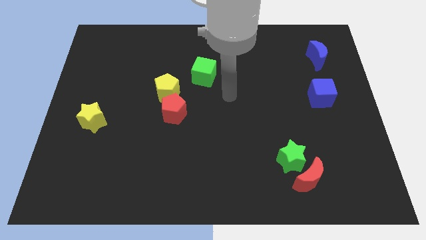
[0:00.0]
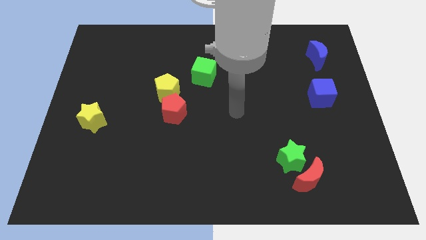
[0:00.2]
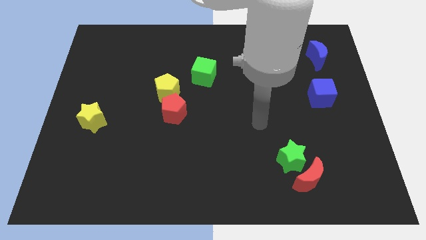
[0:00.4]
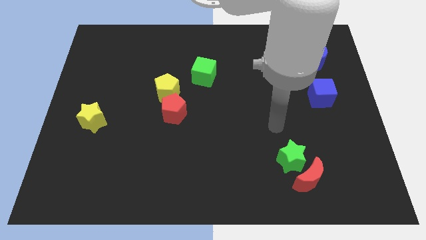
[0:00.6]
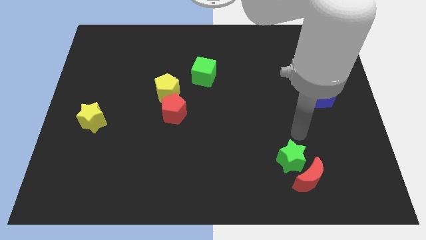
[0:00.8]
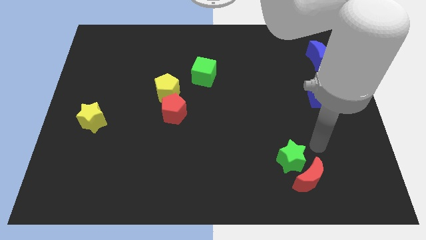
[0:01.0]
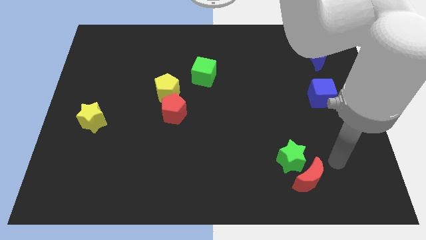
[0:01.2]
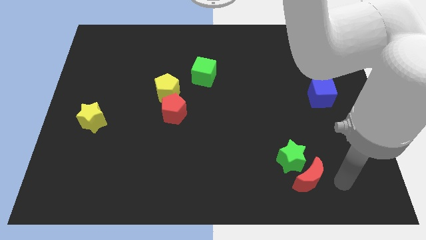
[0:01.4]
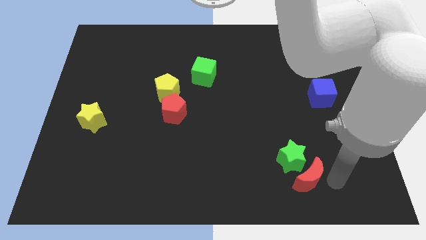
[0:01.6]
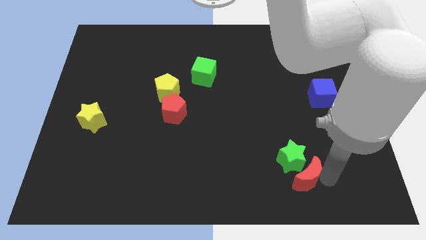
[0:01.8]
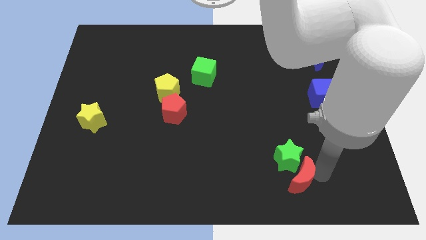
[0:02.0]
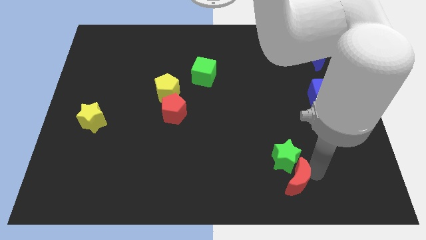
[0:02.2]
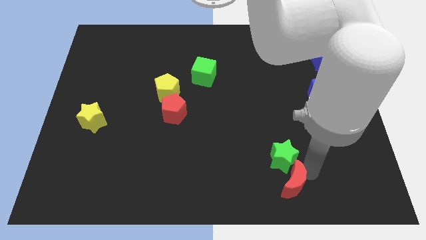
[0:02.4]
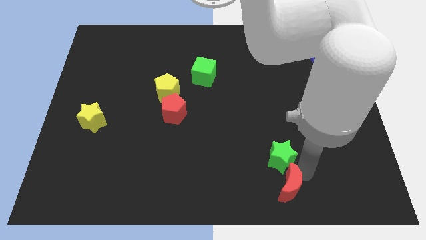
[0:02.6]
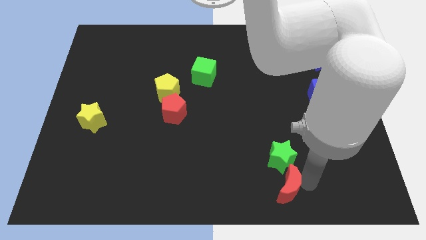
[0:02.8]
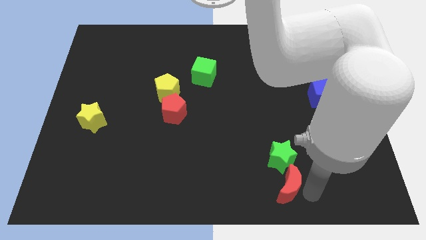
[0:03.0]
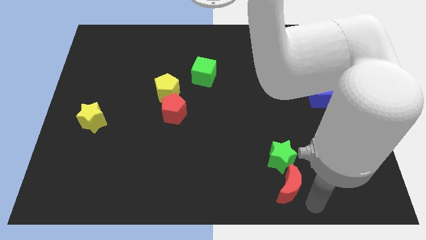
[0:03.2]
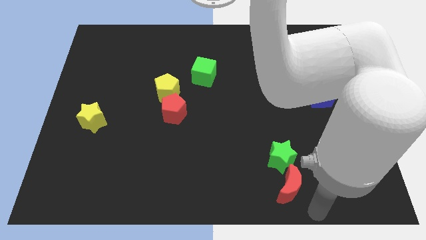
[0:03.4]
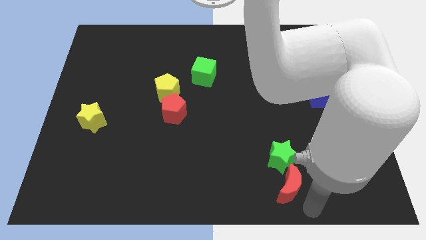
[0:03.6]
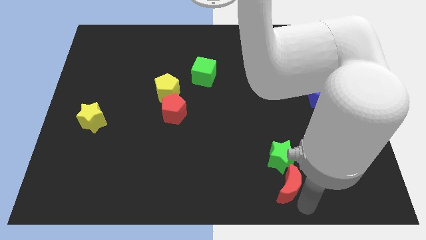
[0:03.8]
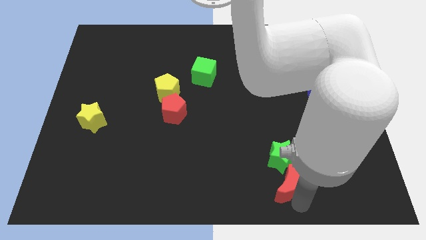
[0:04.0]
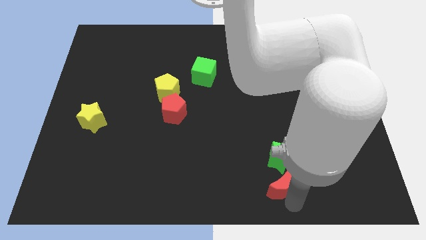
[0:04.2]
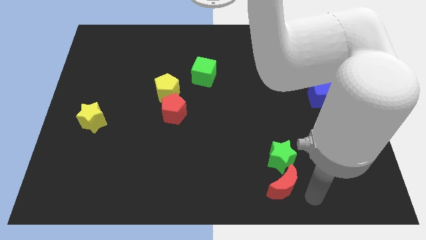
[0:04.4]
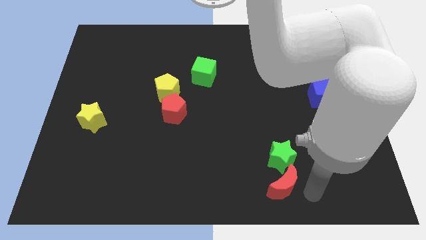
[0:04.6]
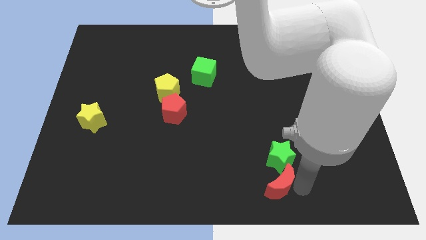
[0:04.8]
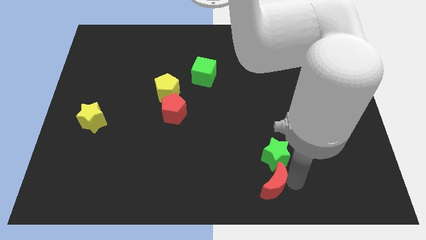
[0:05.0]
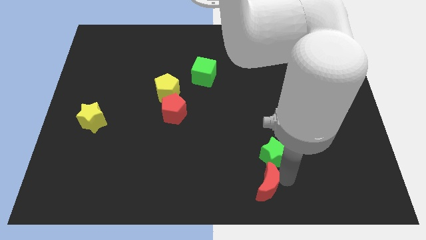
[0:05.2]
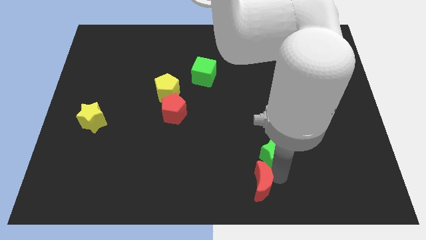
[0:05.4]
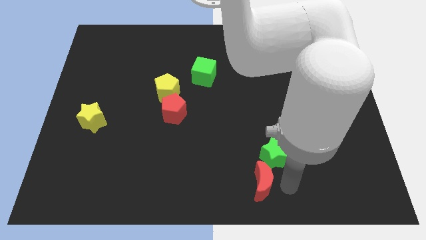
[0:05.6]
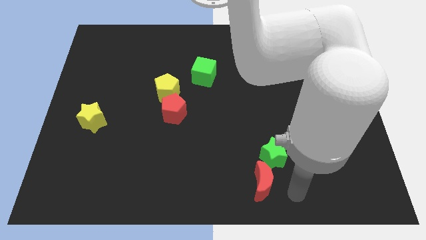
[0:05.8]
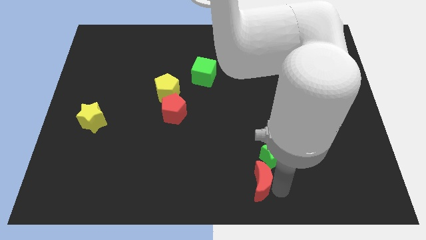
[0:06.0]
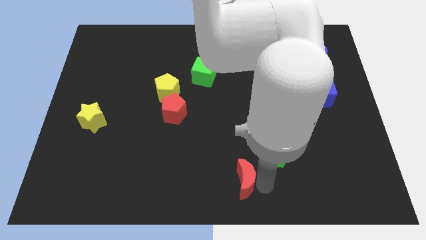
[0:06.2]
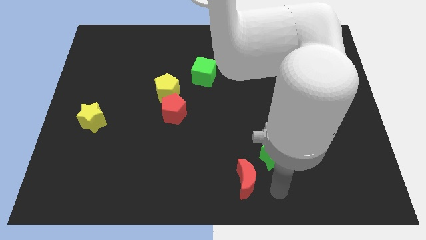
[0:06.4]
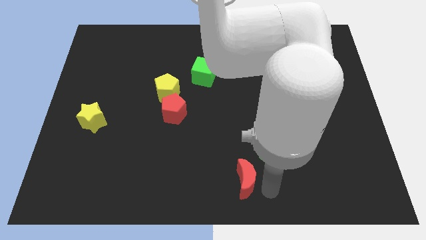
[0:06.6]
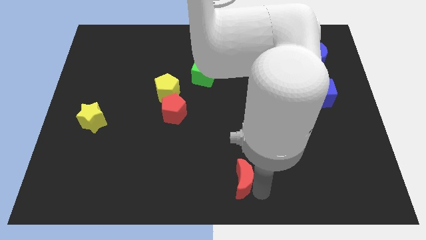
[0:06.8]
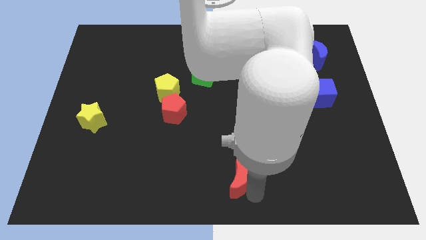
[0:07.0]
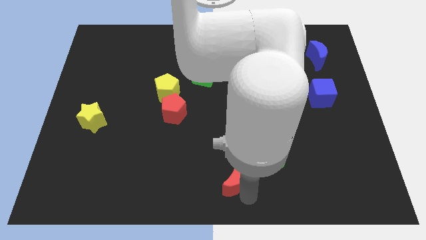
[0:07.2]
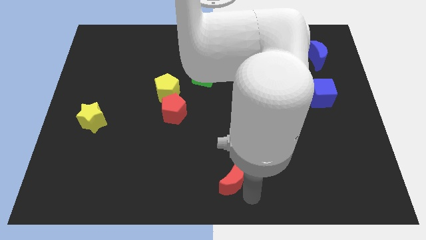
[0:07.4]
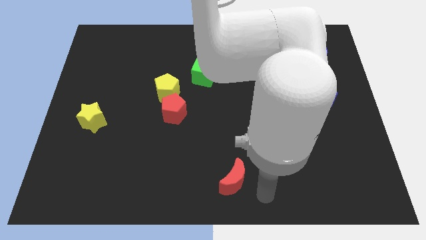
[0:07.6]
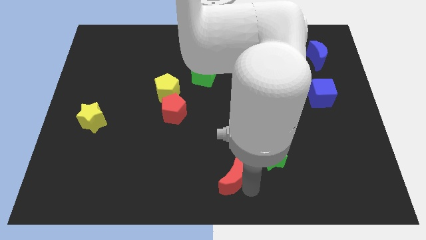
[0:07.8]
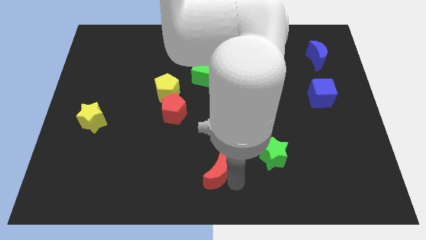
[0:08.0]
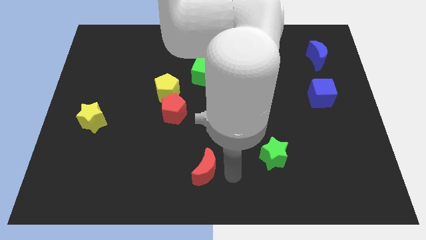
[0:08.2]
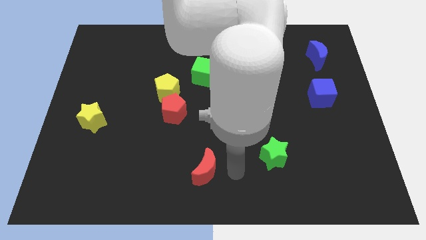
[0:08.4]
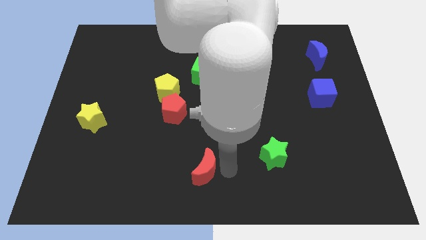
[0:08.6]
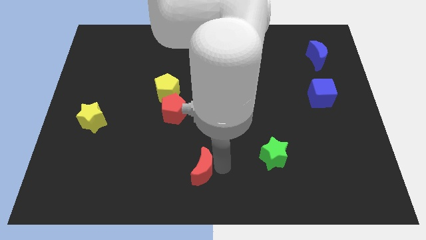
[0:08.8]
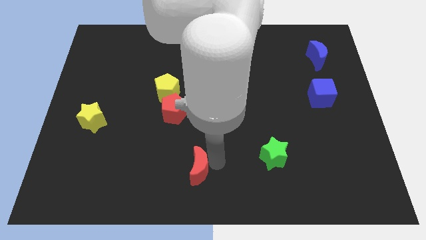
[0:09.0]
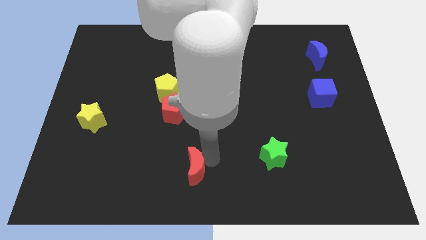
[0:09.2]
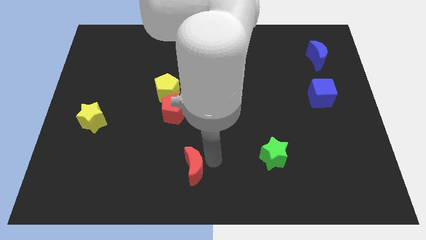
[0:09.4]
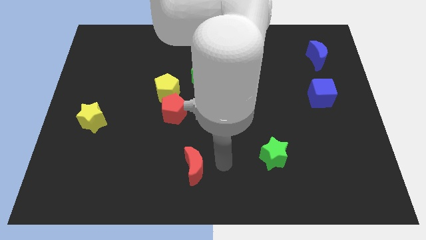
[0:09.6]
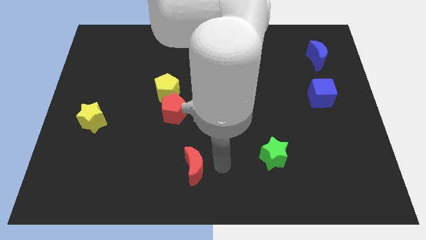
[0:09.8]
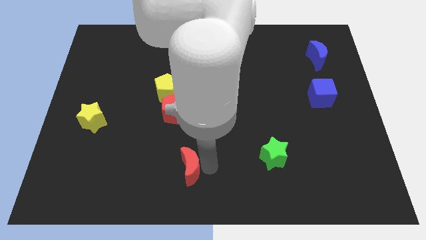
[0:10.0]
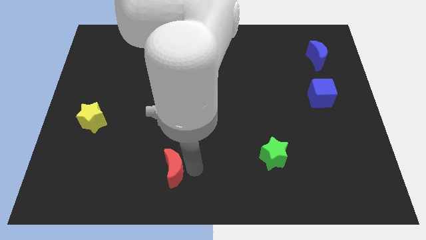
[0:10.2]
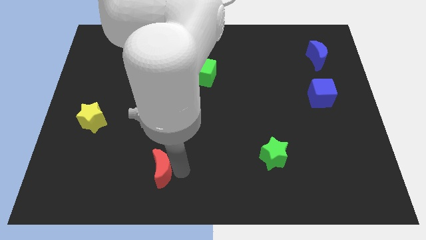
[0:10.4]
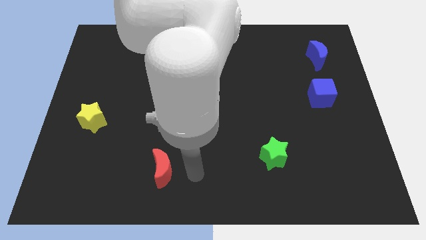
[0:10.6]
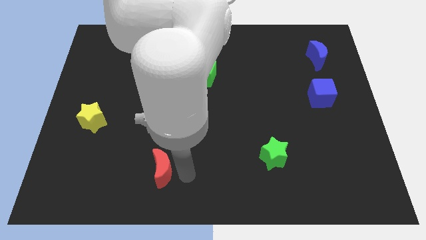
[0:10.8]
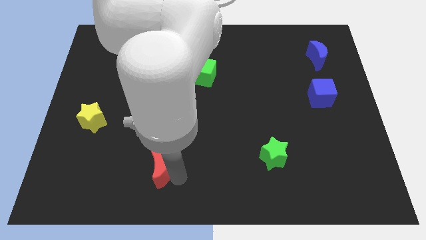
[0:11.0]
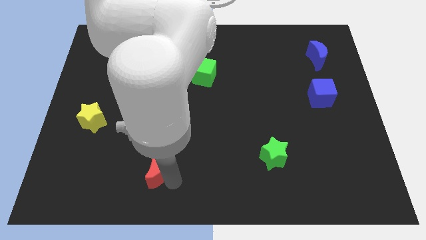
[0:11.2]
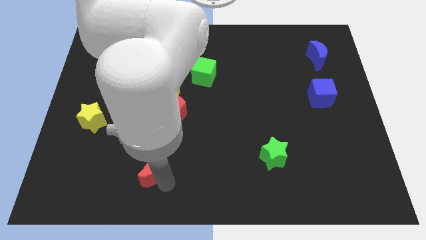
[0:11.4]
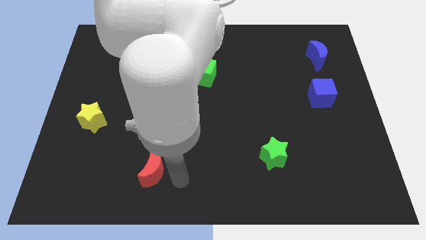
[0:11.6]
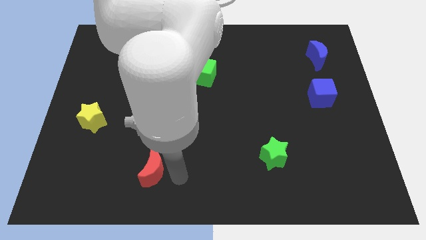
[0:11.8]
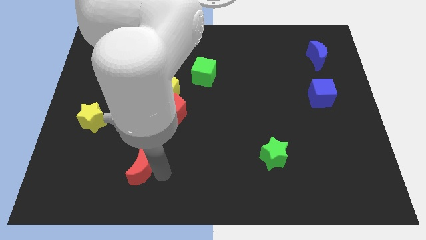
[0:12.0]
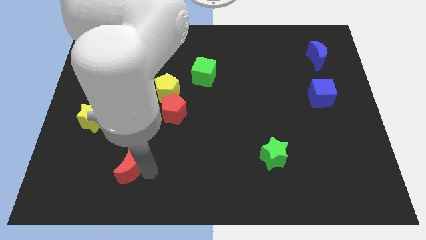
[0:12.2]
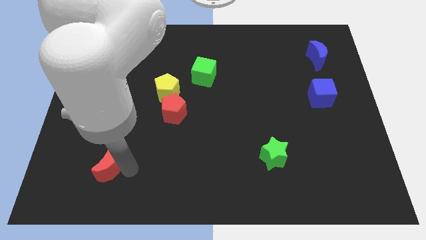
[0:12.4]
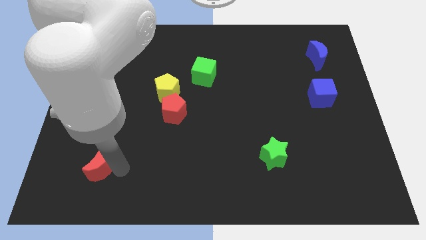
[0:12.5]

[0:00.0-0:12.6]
put the red moon to the bottom of the yellow star

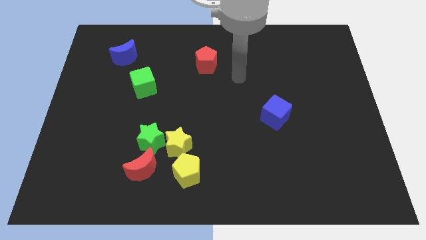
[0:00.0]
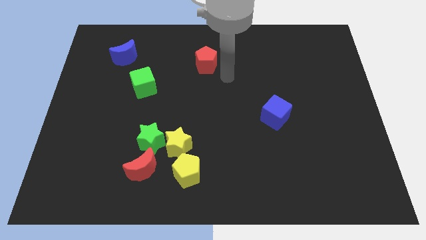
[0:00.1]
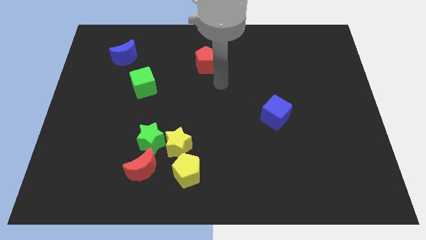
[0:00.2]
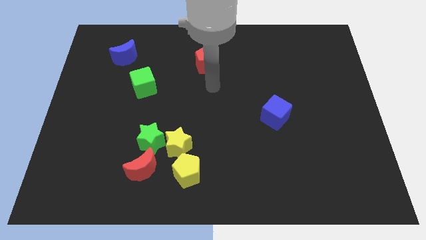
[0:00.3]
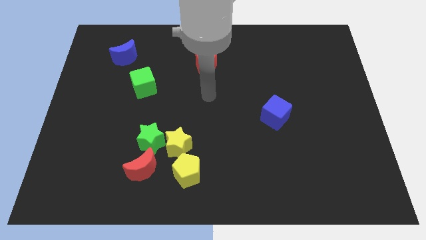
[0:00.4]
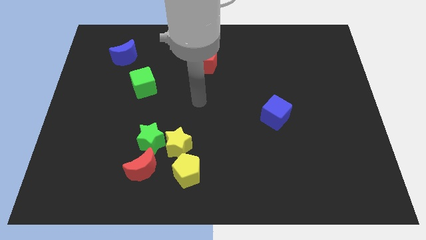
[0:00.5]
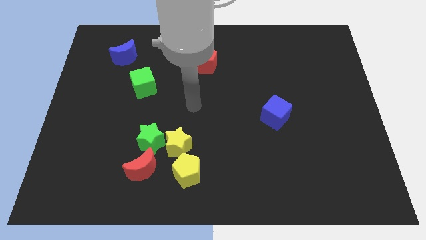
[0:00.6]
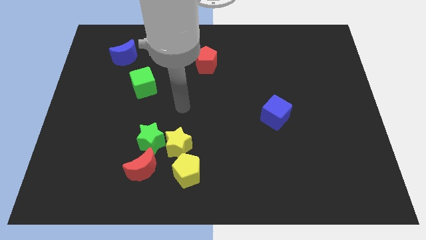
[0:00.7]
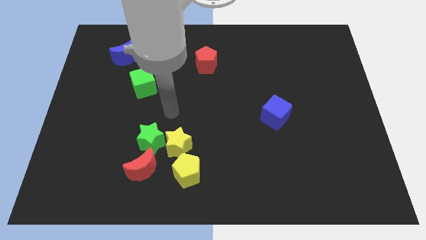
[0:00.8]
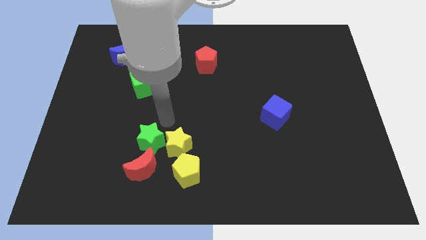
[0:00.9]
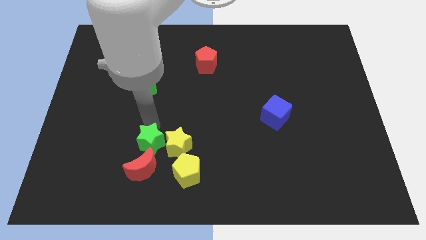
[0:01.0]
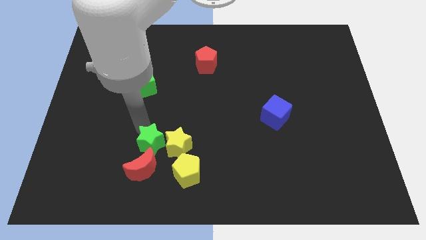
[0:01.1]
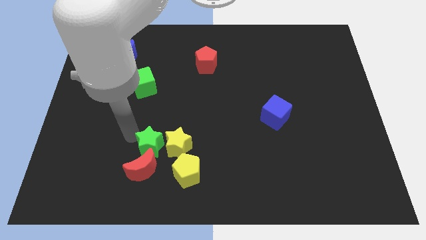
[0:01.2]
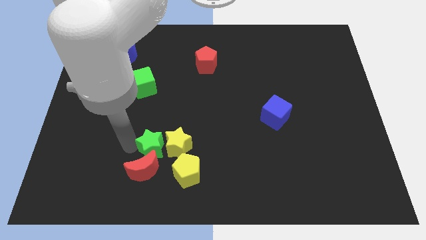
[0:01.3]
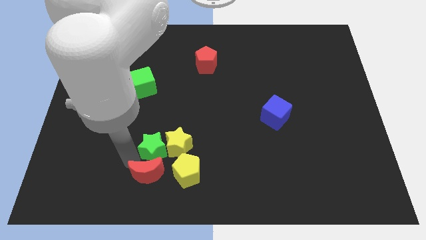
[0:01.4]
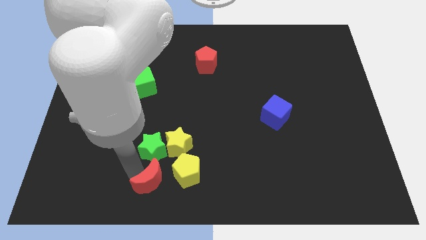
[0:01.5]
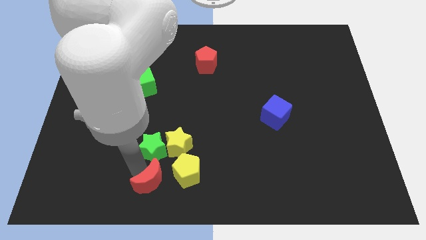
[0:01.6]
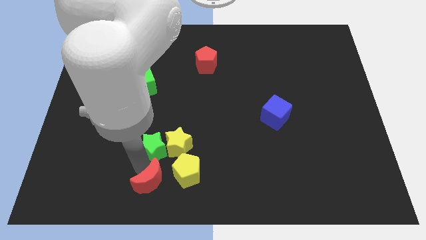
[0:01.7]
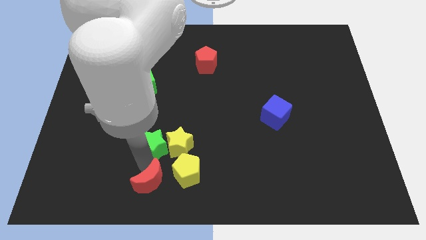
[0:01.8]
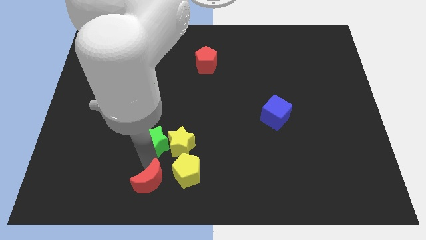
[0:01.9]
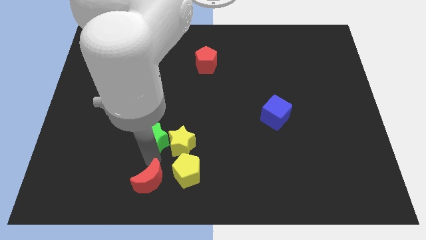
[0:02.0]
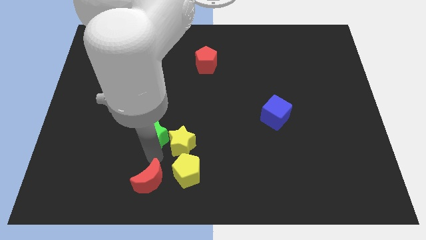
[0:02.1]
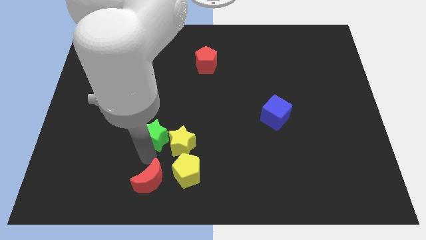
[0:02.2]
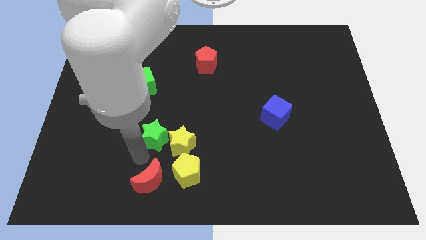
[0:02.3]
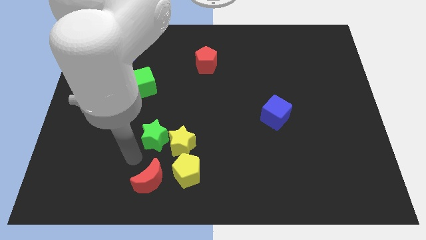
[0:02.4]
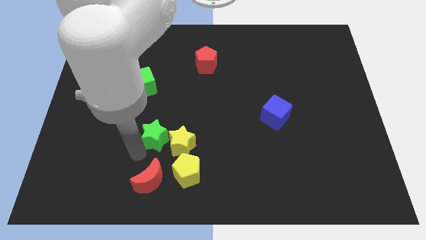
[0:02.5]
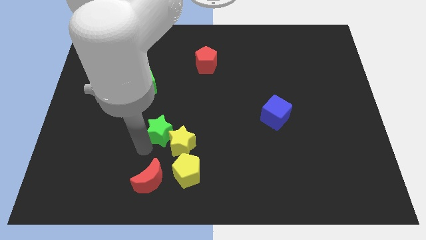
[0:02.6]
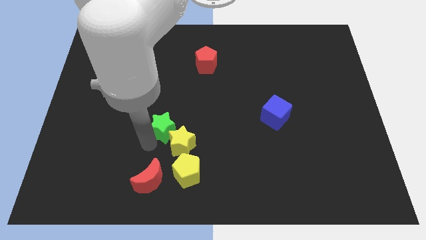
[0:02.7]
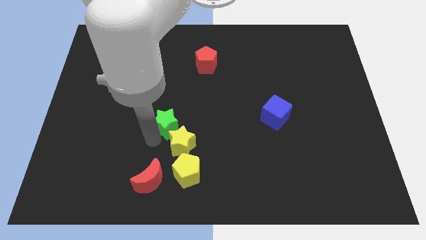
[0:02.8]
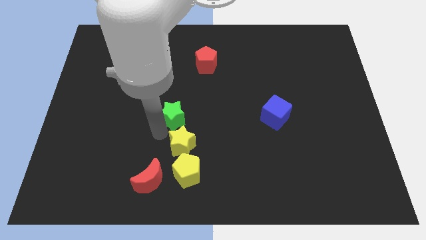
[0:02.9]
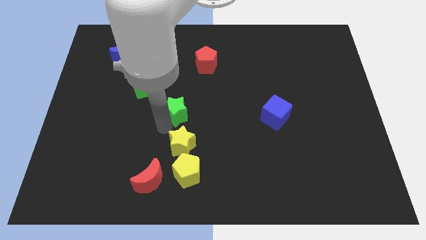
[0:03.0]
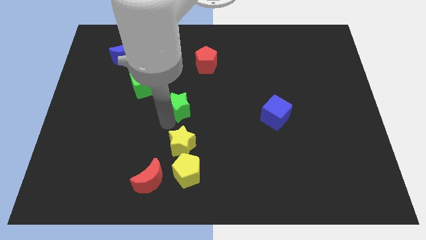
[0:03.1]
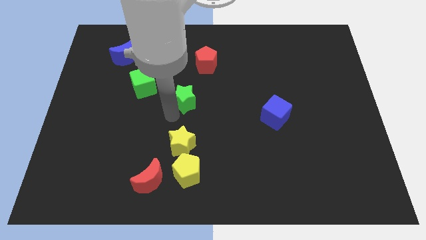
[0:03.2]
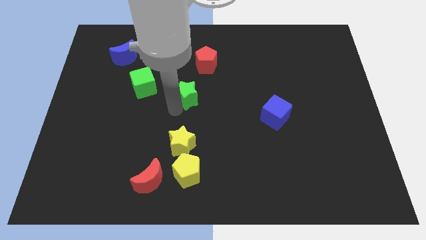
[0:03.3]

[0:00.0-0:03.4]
put the green star below the red pentagon
